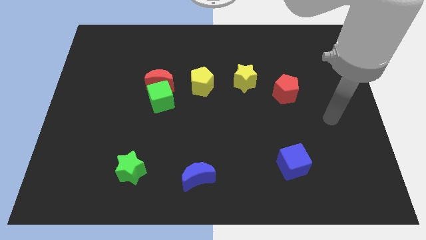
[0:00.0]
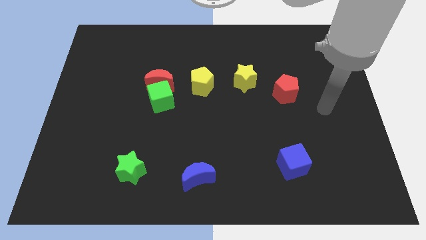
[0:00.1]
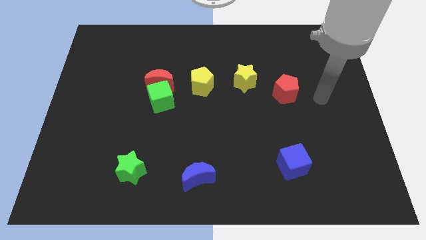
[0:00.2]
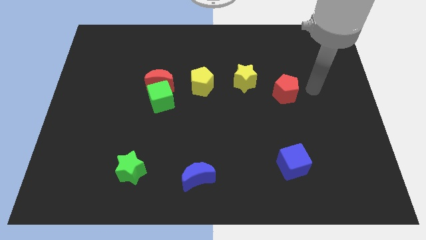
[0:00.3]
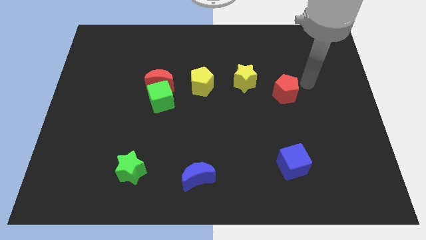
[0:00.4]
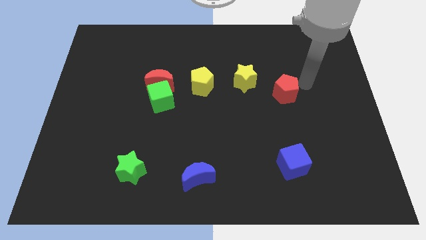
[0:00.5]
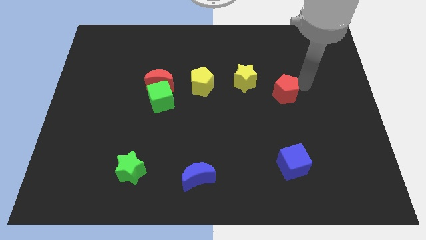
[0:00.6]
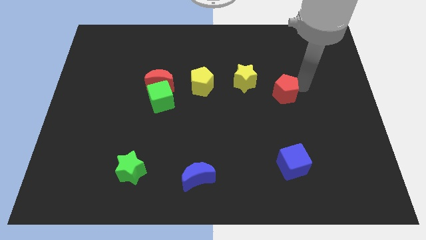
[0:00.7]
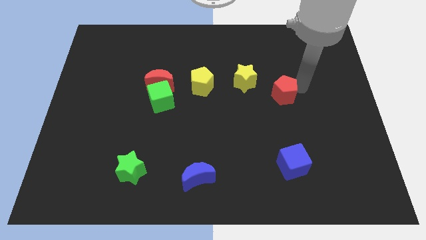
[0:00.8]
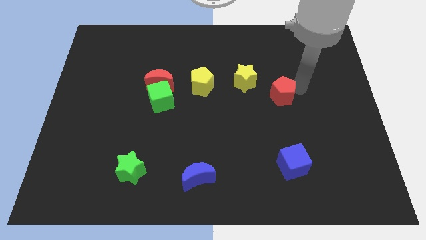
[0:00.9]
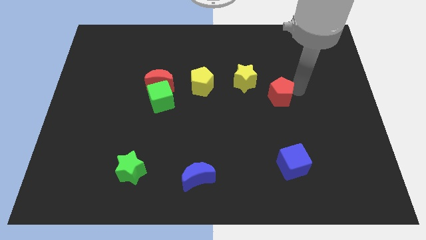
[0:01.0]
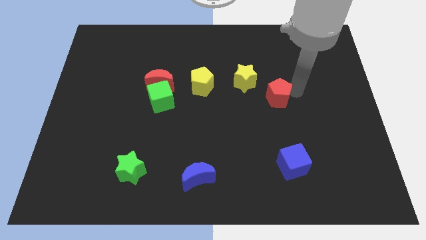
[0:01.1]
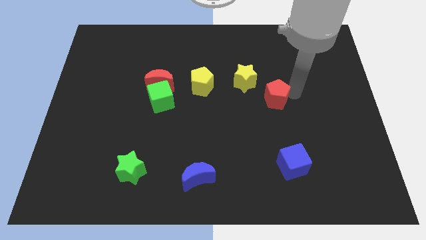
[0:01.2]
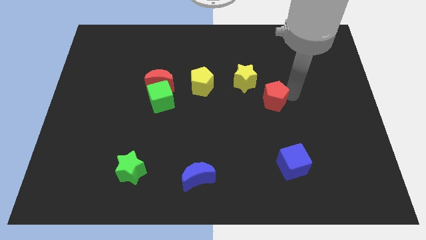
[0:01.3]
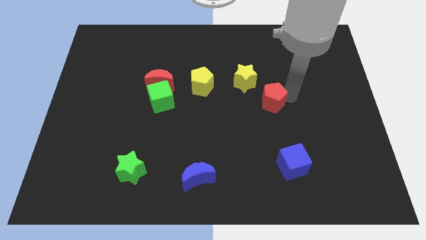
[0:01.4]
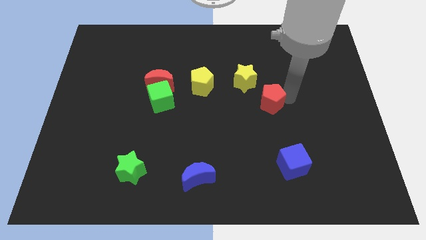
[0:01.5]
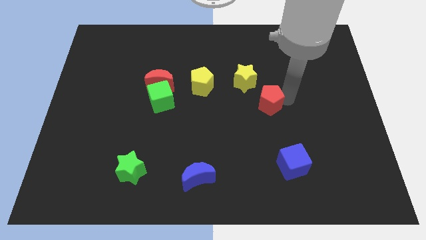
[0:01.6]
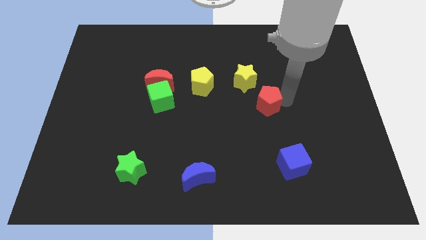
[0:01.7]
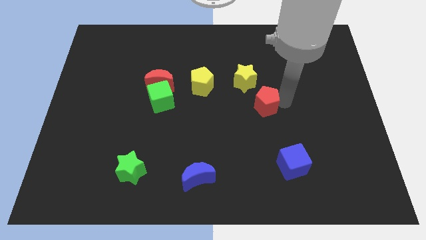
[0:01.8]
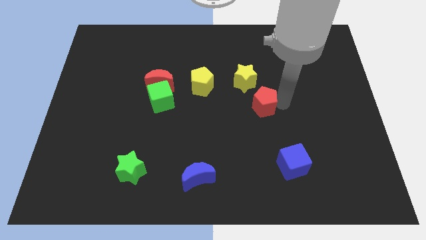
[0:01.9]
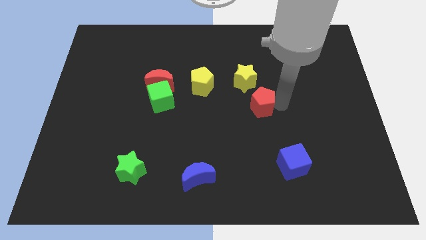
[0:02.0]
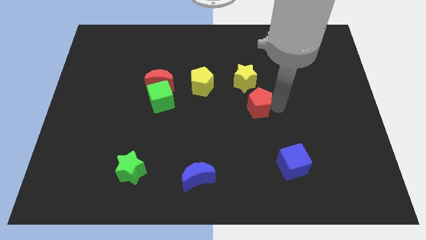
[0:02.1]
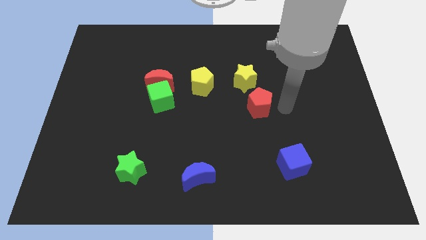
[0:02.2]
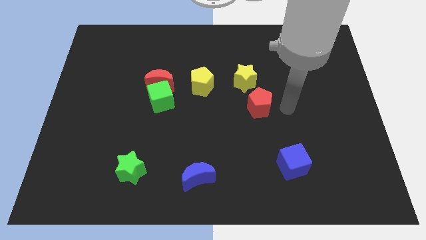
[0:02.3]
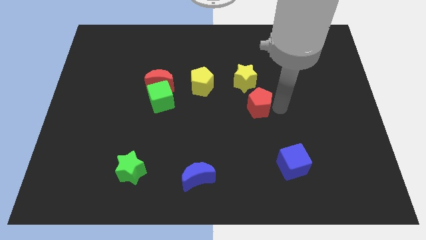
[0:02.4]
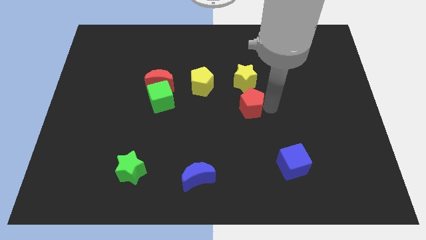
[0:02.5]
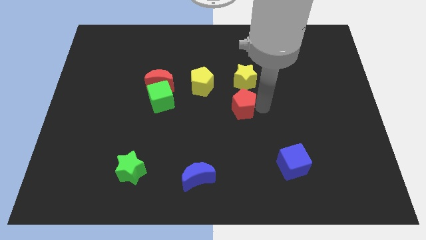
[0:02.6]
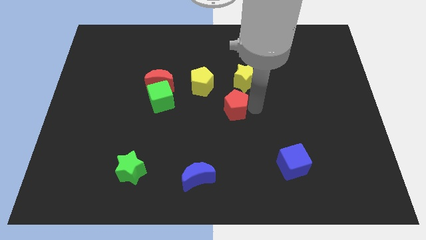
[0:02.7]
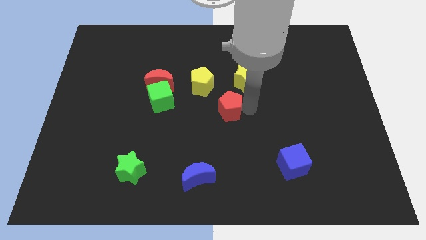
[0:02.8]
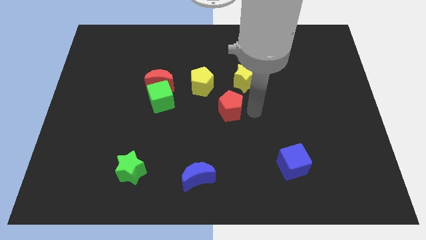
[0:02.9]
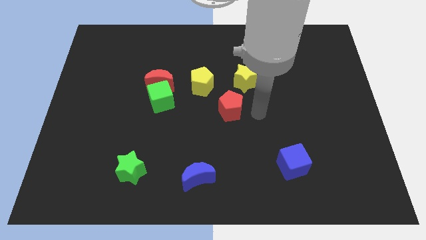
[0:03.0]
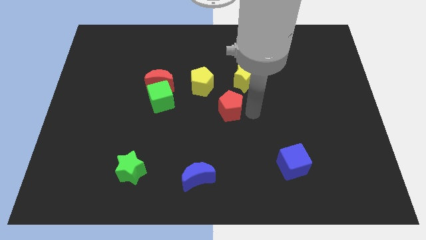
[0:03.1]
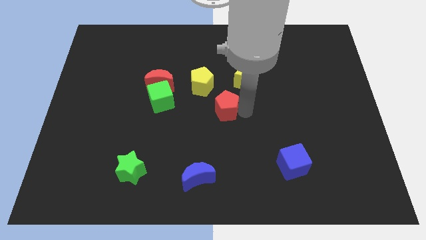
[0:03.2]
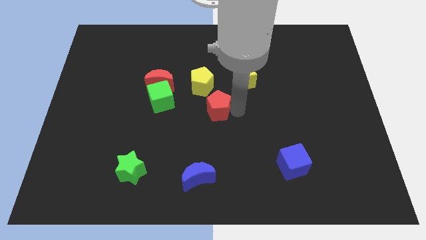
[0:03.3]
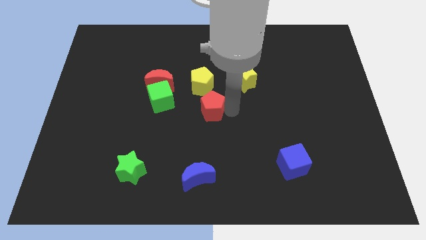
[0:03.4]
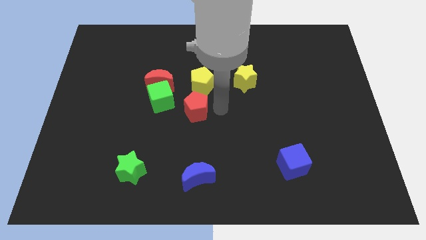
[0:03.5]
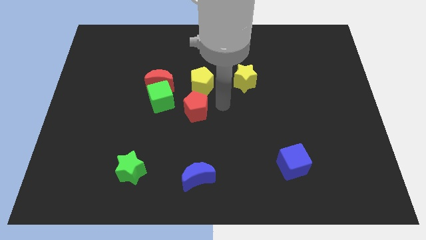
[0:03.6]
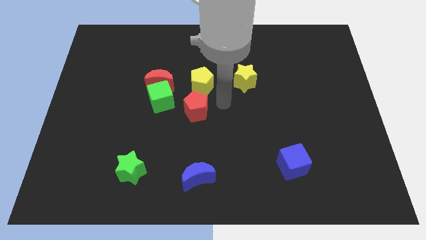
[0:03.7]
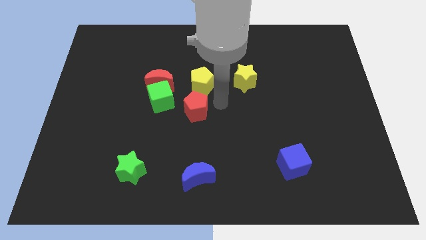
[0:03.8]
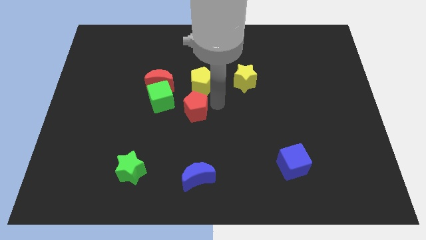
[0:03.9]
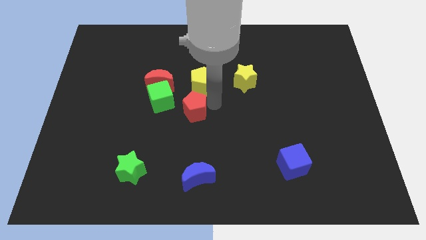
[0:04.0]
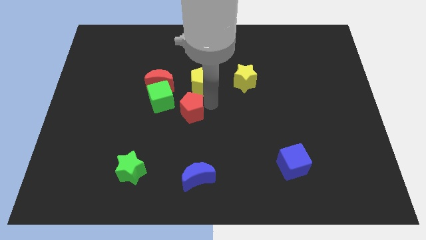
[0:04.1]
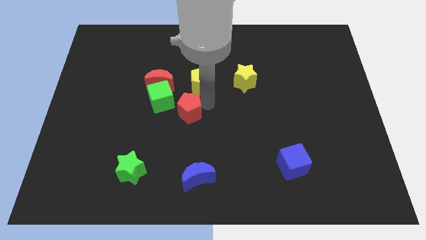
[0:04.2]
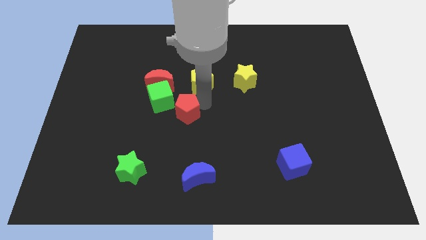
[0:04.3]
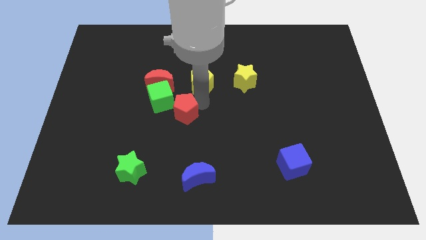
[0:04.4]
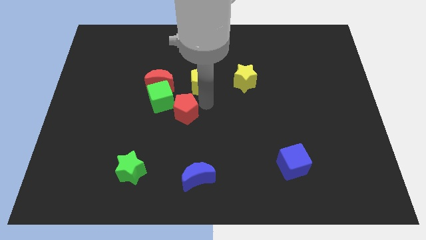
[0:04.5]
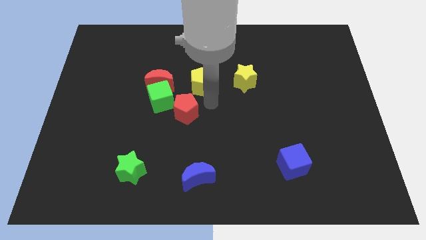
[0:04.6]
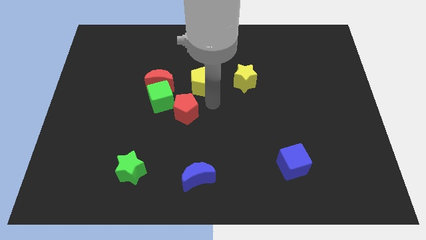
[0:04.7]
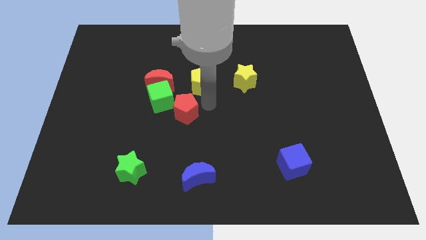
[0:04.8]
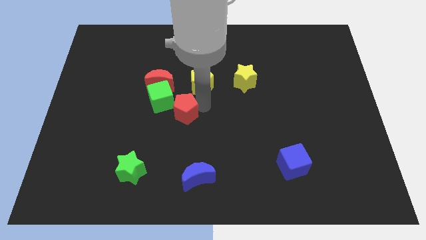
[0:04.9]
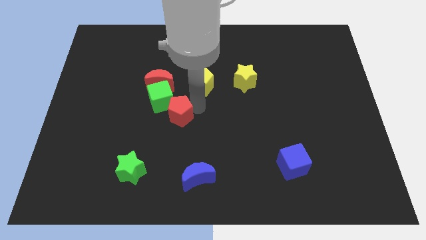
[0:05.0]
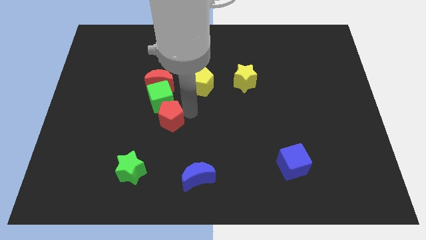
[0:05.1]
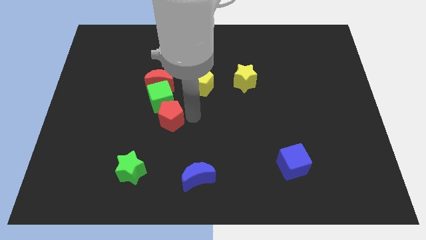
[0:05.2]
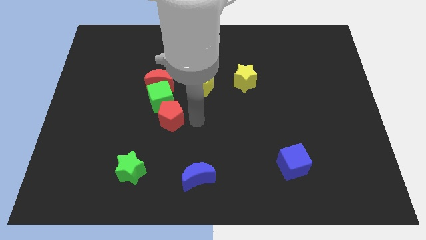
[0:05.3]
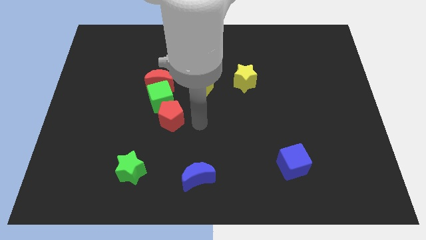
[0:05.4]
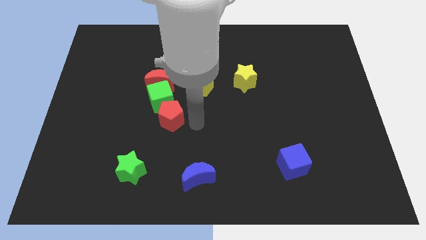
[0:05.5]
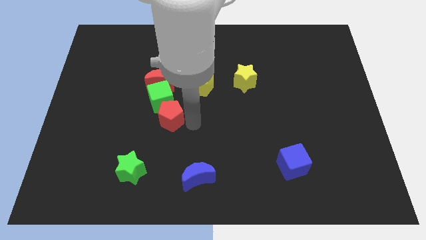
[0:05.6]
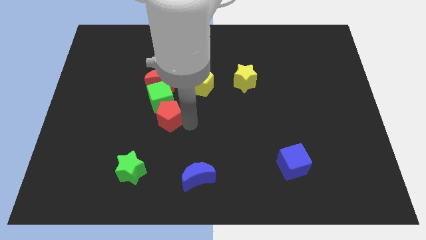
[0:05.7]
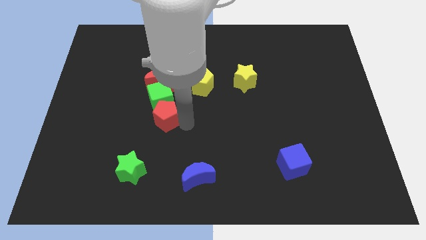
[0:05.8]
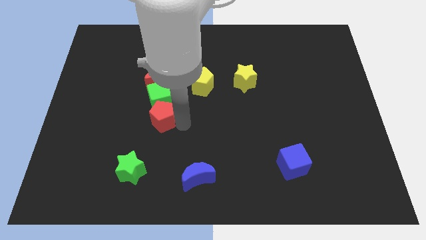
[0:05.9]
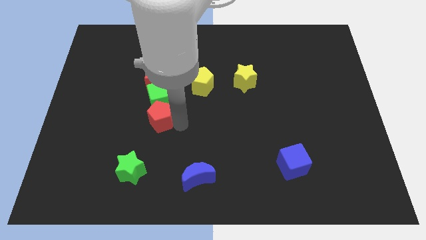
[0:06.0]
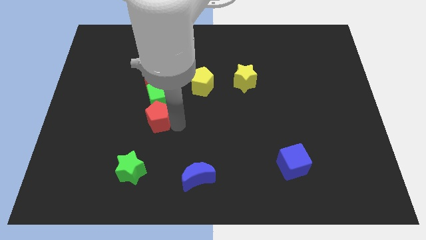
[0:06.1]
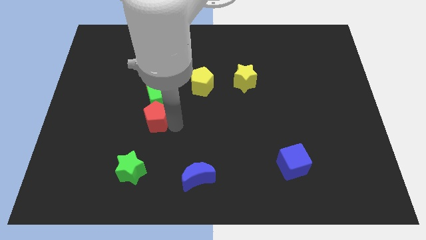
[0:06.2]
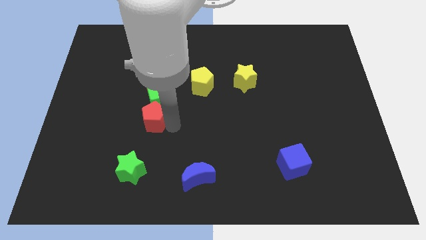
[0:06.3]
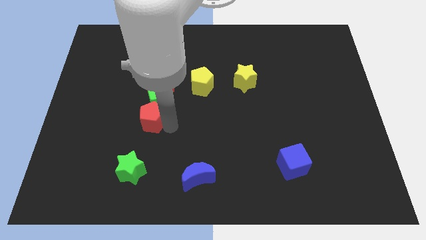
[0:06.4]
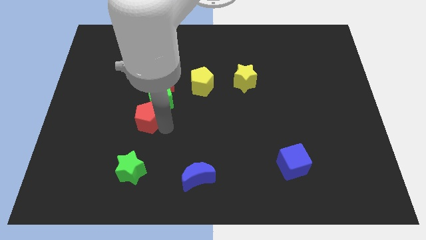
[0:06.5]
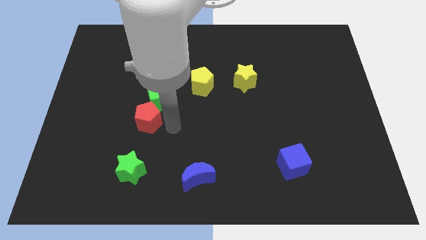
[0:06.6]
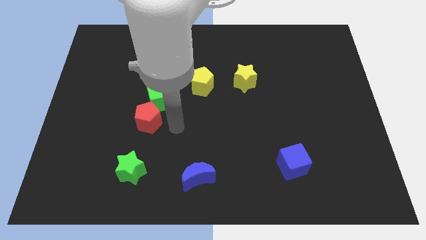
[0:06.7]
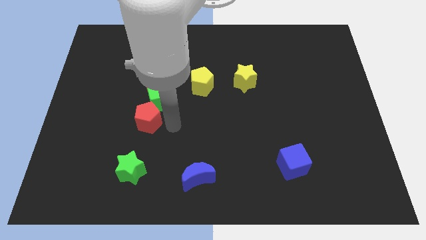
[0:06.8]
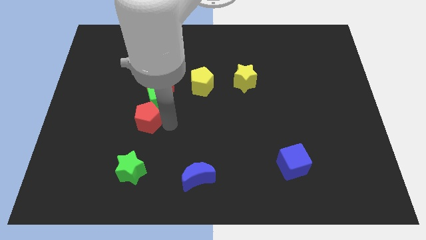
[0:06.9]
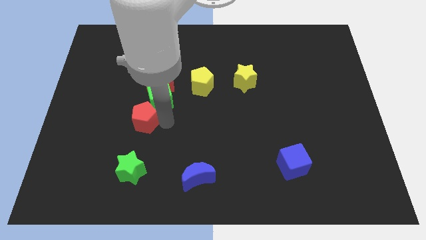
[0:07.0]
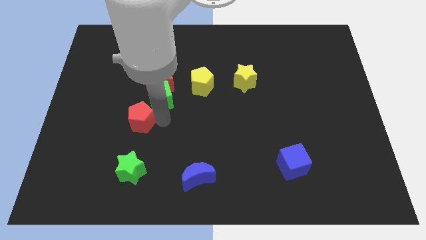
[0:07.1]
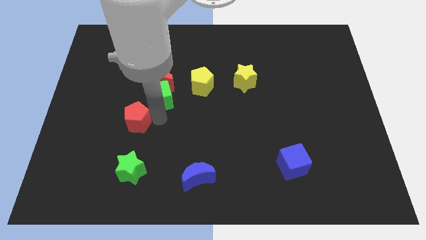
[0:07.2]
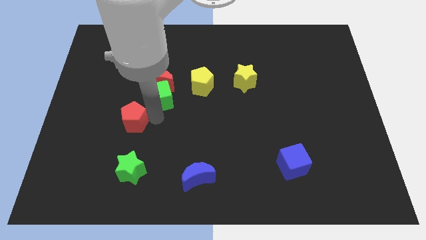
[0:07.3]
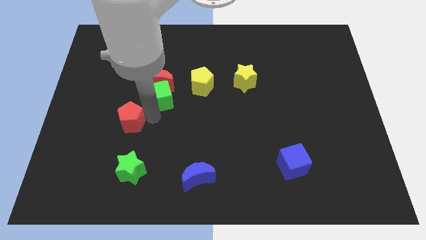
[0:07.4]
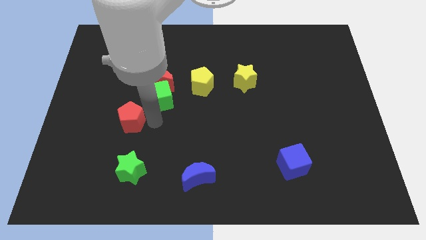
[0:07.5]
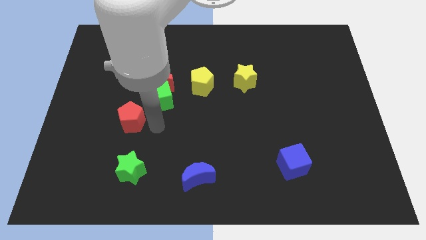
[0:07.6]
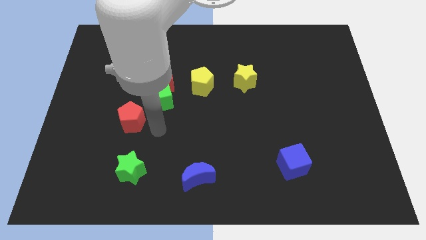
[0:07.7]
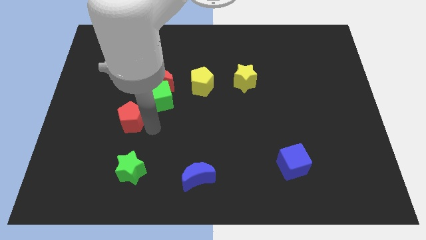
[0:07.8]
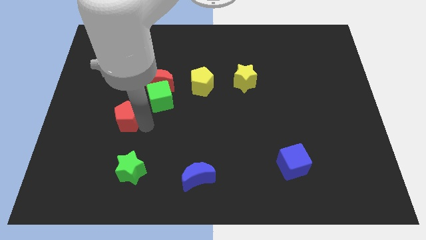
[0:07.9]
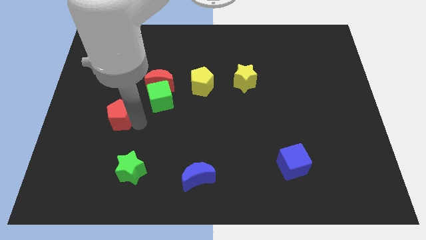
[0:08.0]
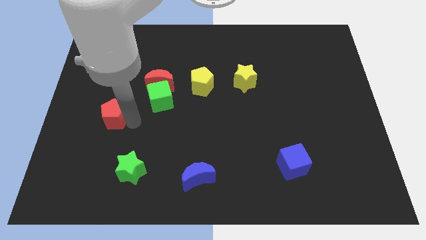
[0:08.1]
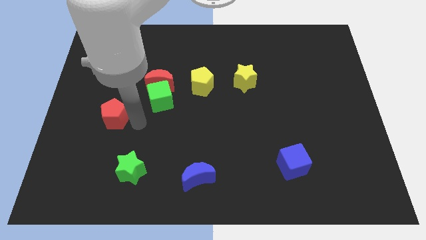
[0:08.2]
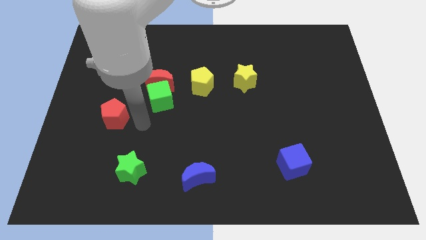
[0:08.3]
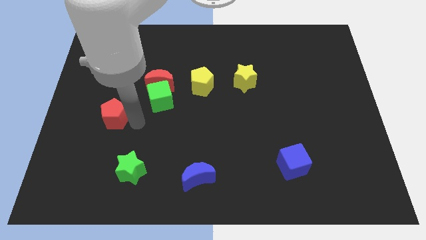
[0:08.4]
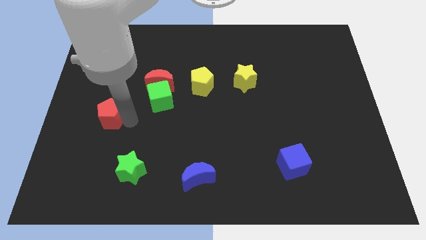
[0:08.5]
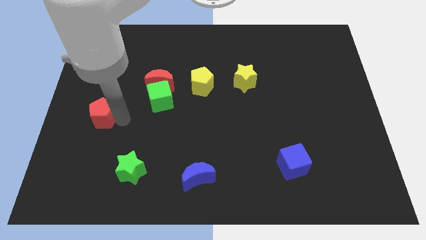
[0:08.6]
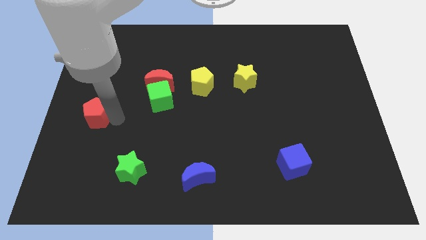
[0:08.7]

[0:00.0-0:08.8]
push the red pentagon to the left side
